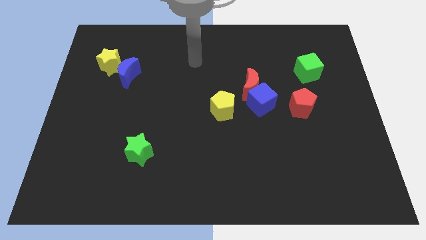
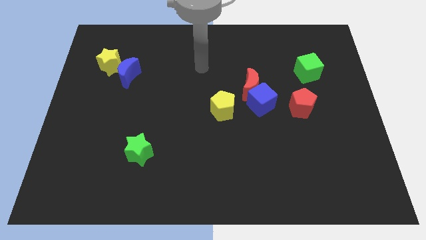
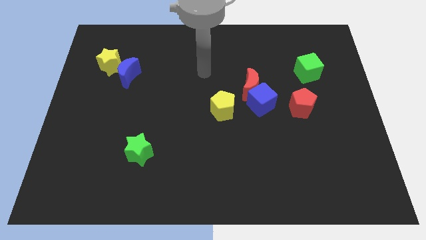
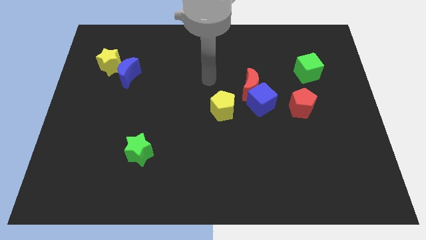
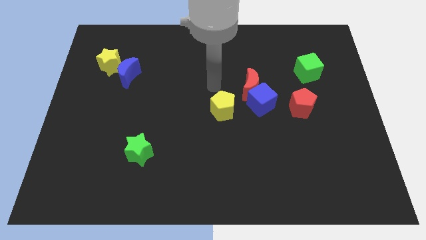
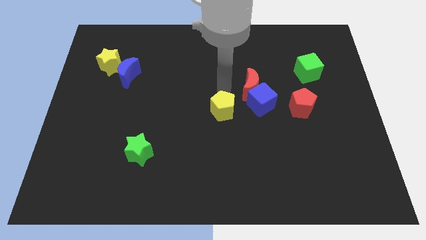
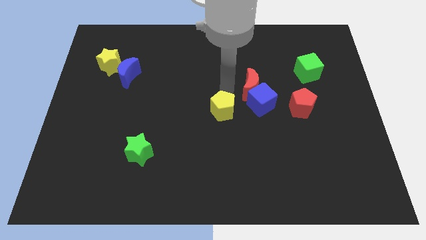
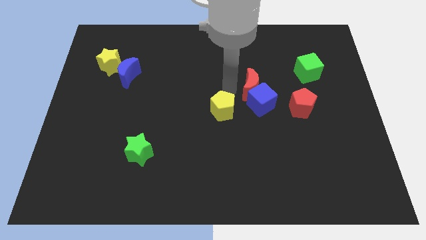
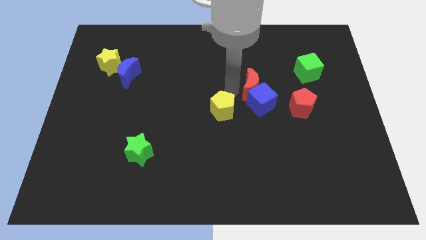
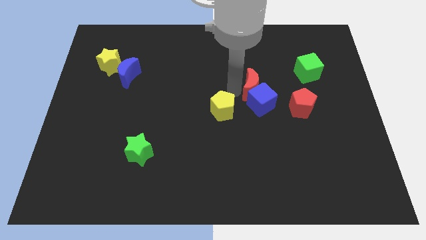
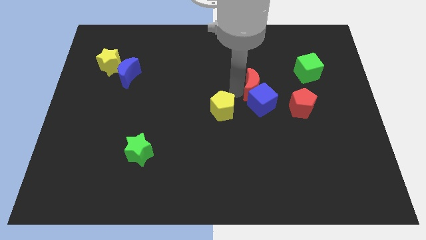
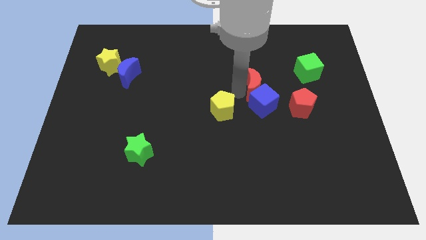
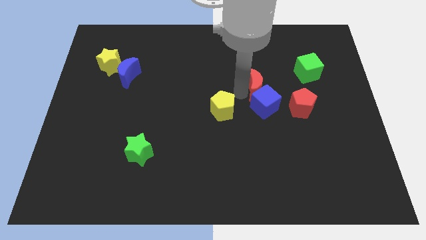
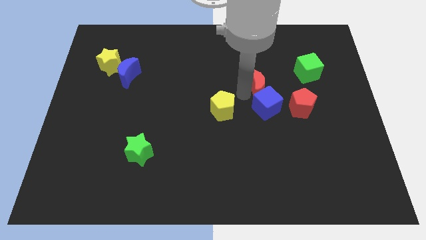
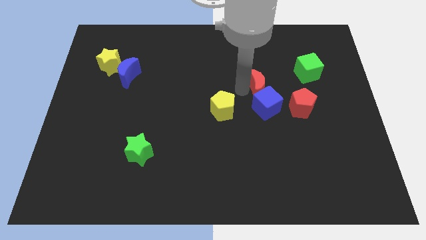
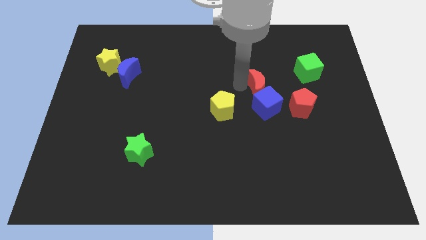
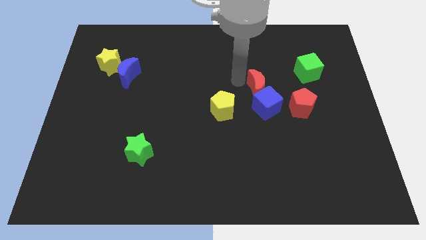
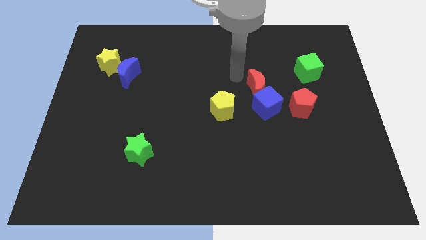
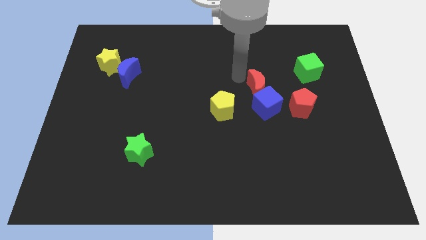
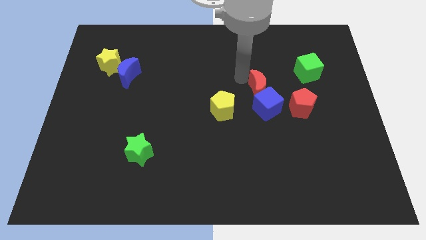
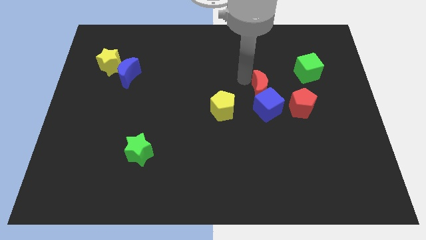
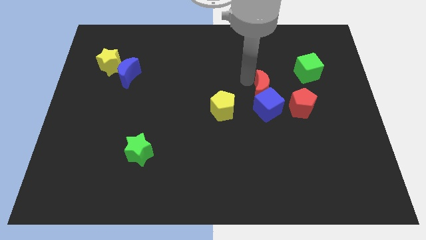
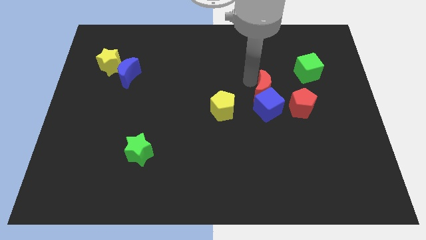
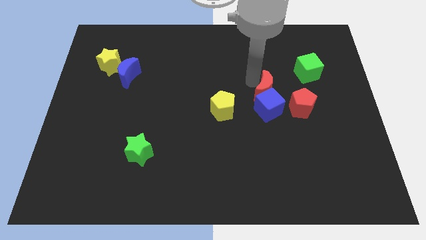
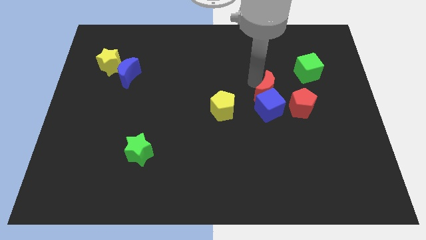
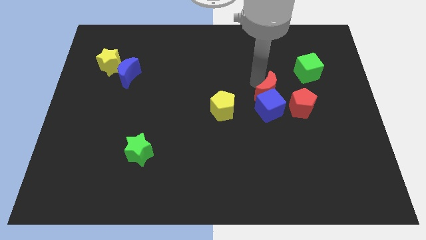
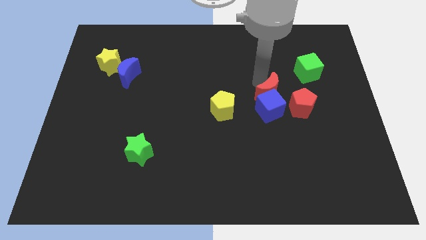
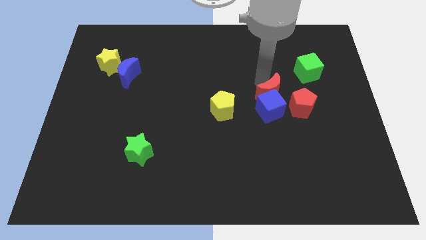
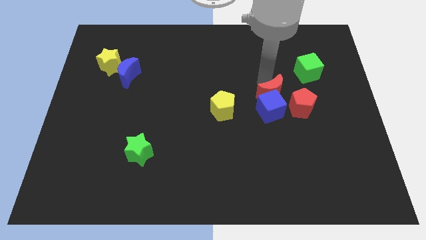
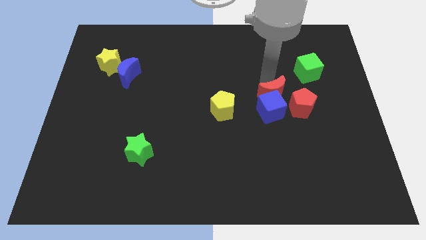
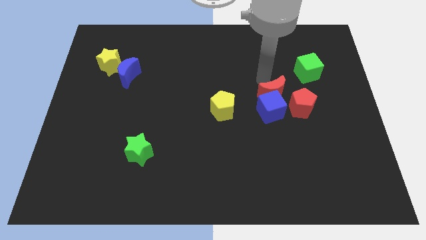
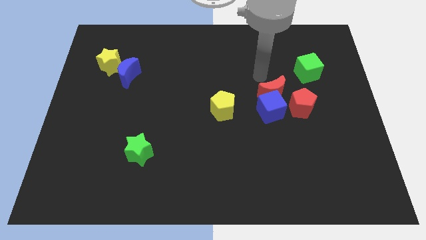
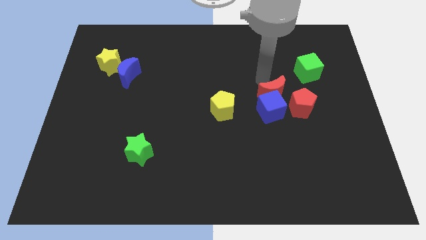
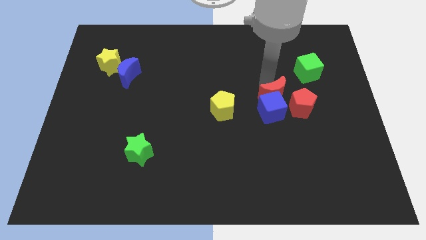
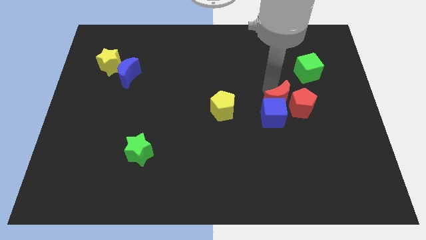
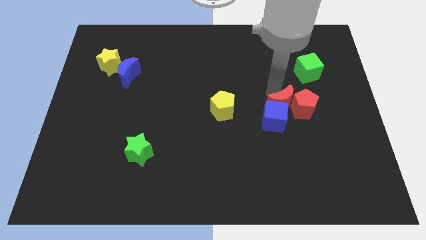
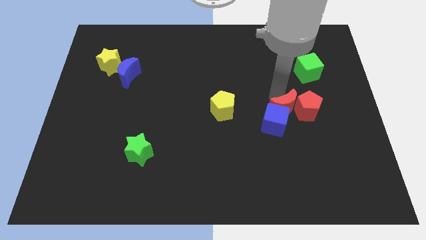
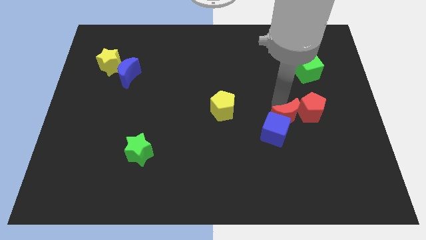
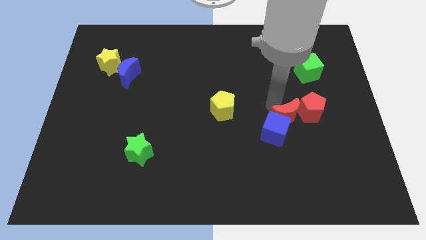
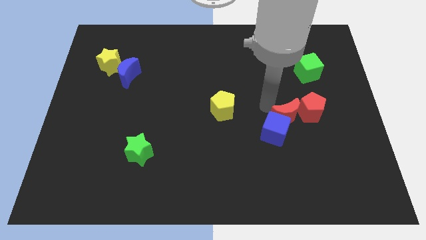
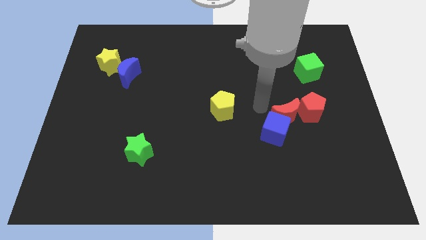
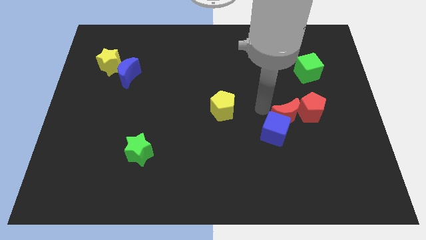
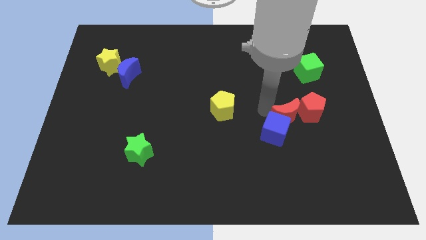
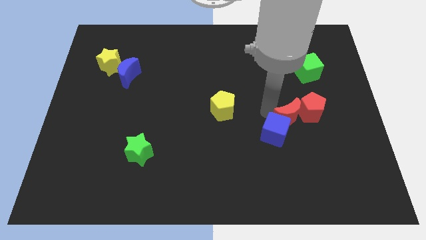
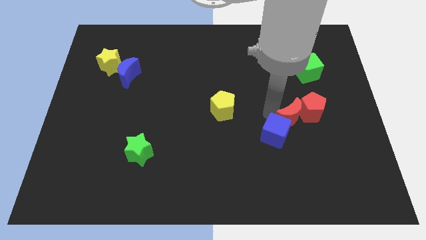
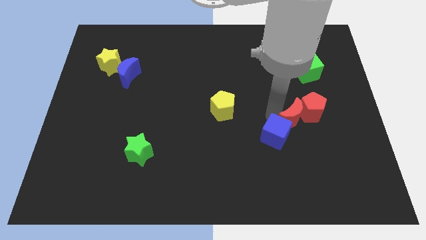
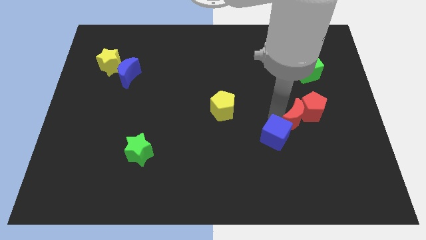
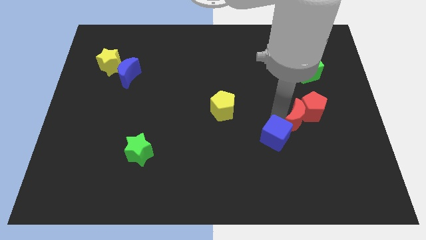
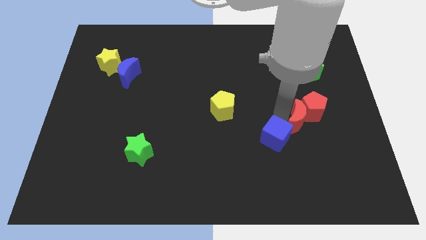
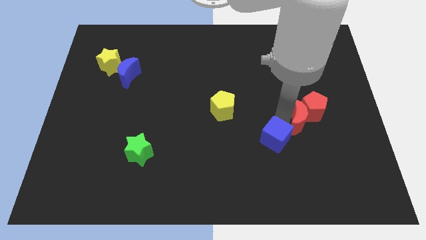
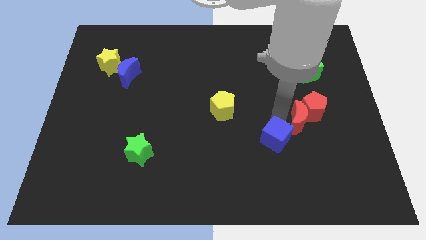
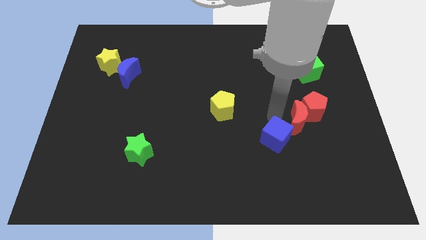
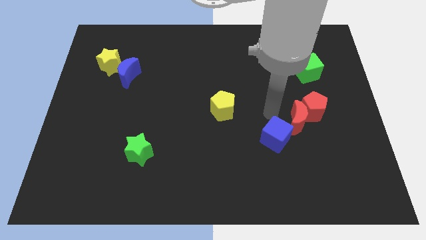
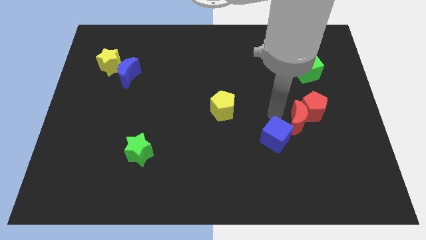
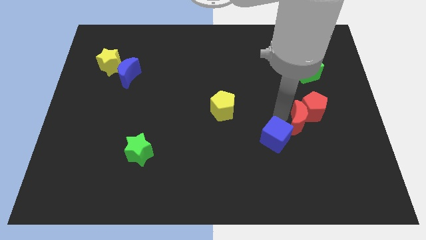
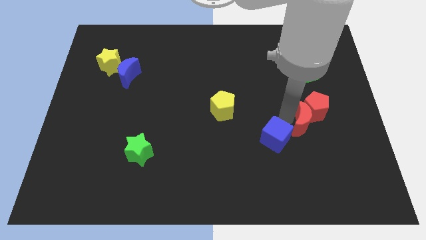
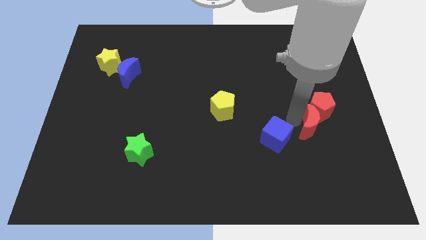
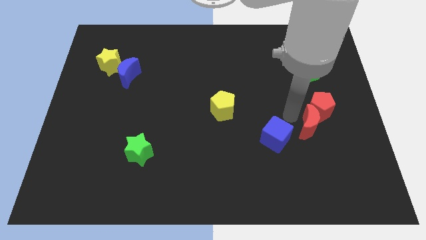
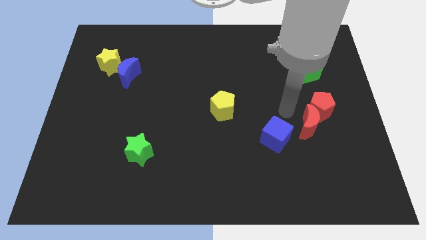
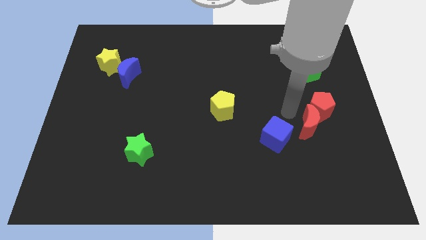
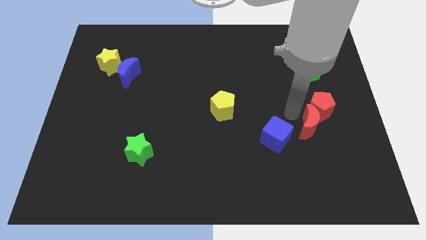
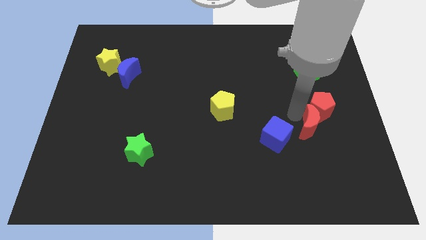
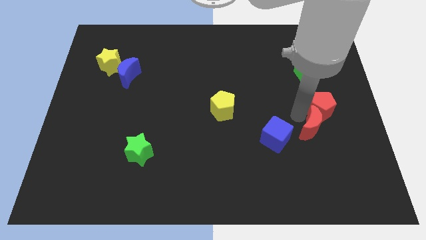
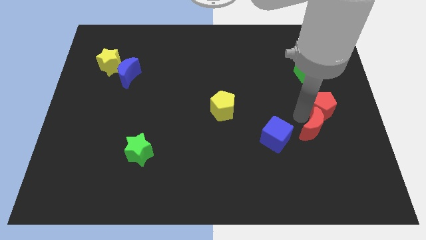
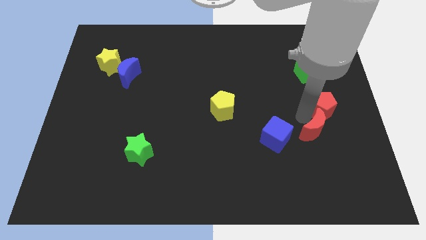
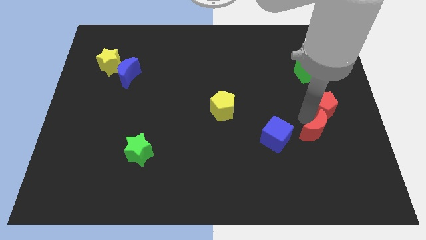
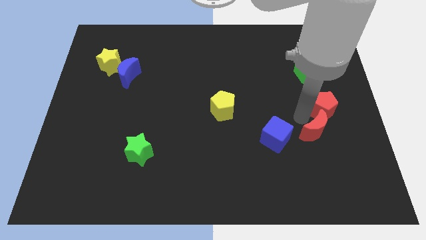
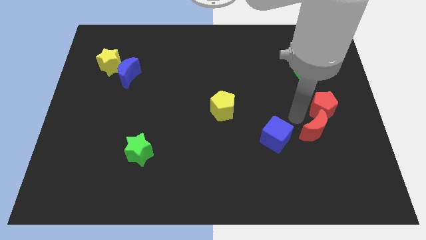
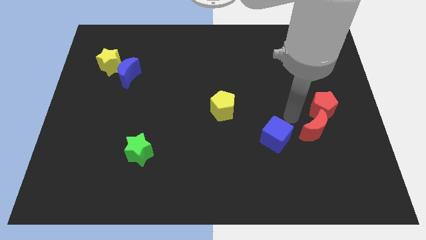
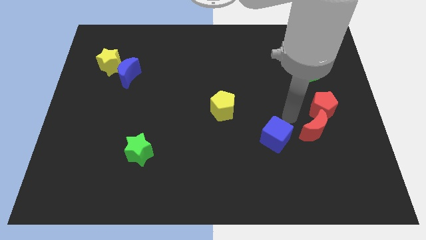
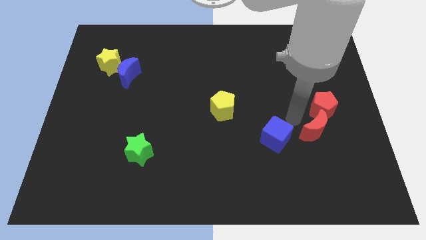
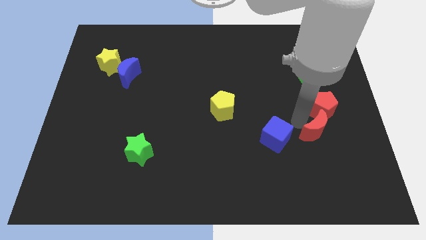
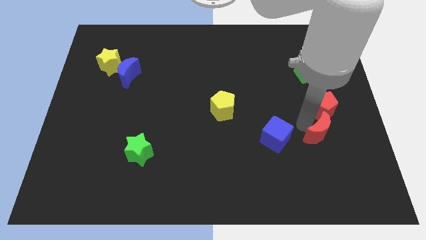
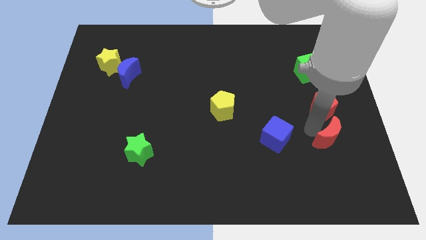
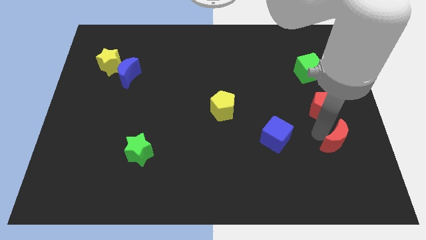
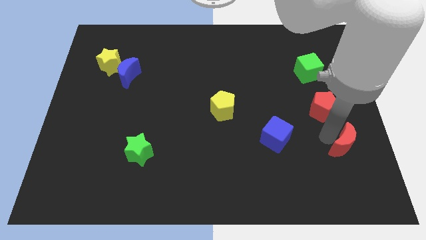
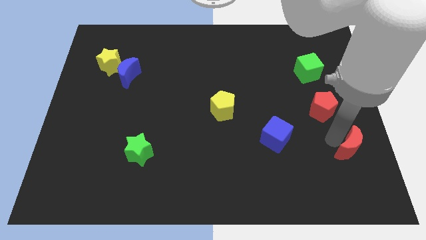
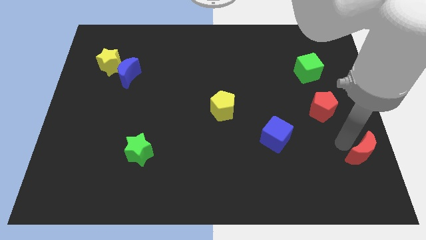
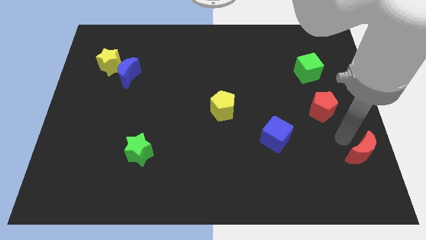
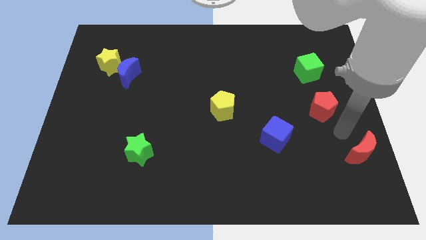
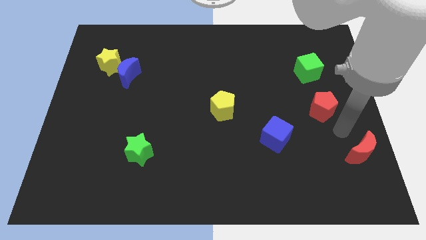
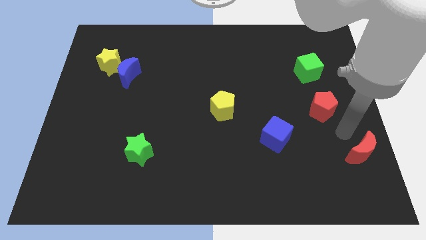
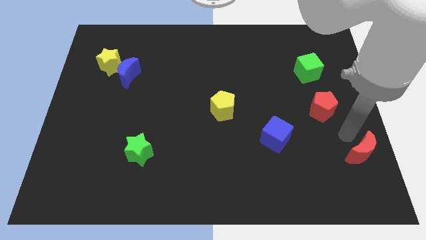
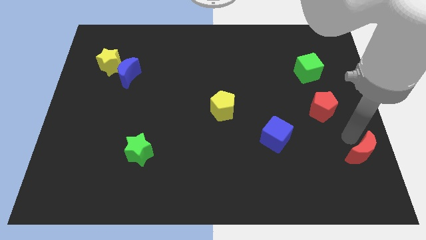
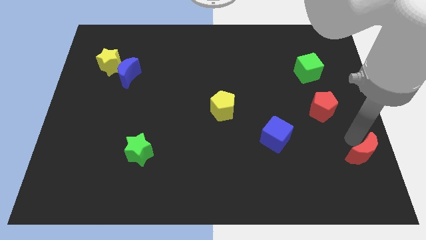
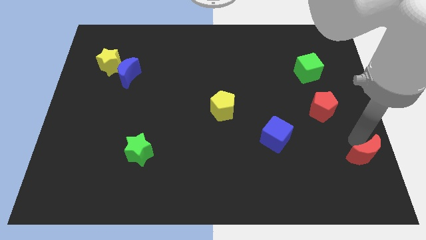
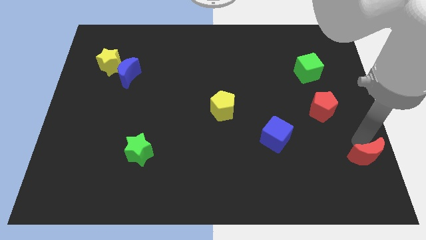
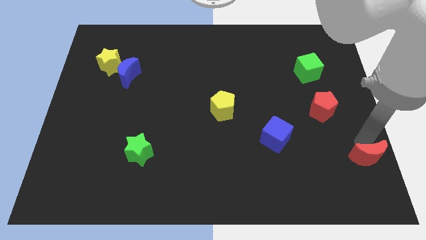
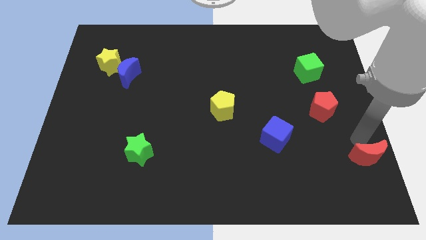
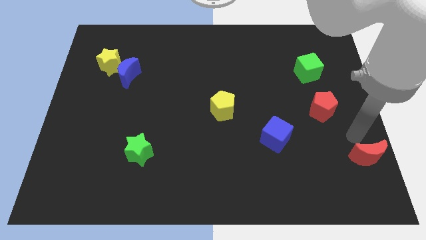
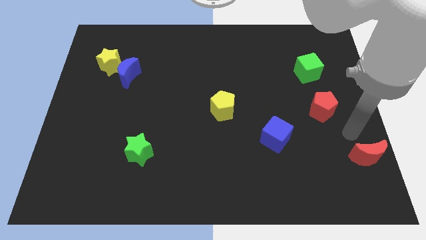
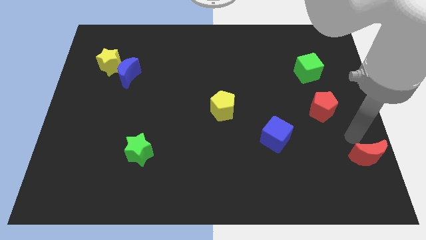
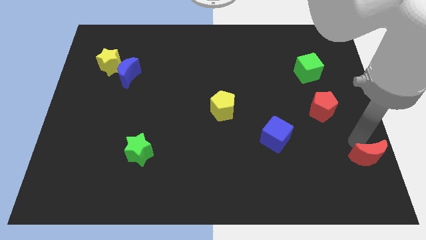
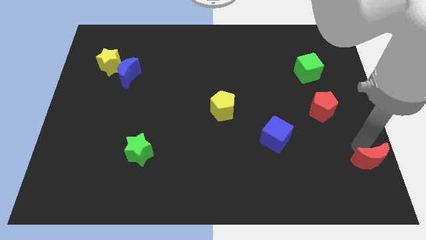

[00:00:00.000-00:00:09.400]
slide the red moon to the lower right corner
